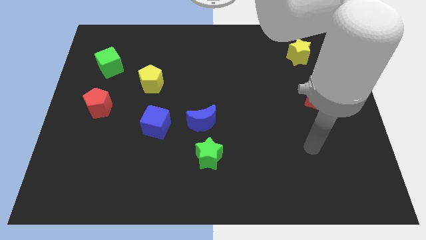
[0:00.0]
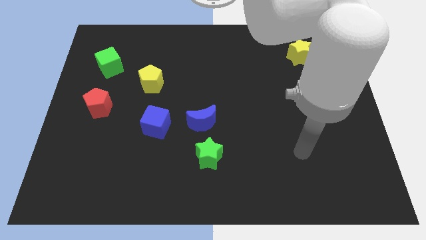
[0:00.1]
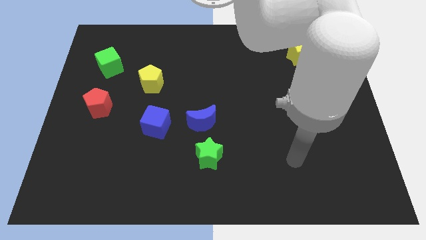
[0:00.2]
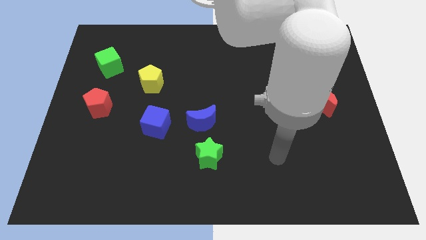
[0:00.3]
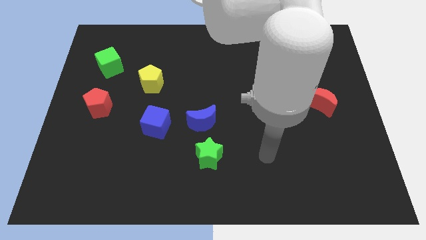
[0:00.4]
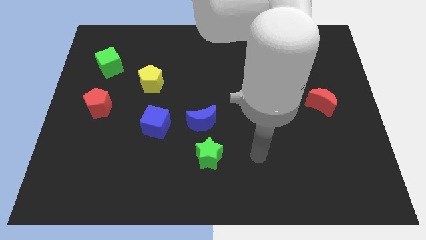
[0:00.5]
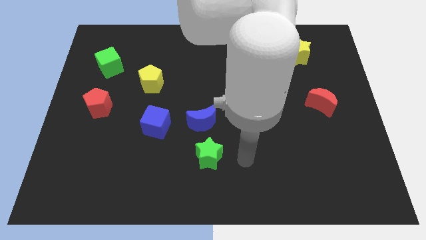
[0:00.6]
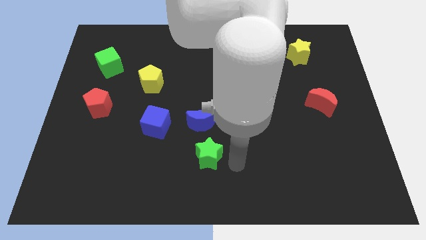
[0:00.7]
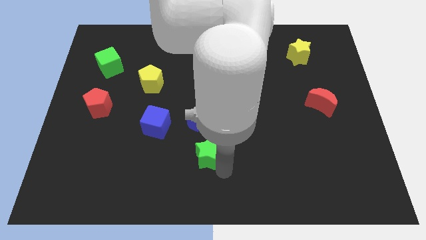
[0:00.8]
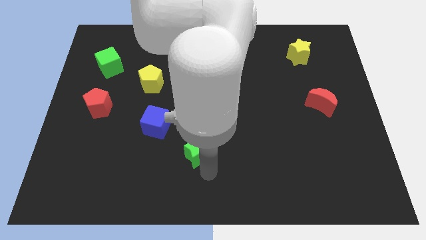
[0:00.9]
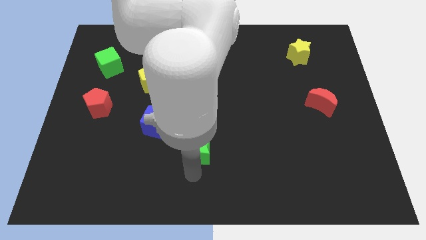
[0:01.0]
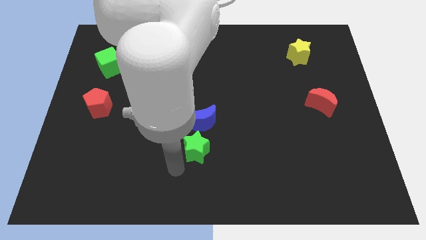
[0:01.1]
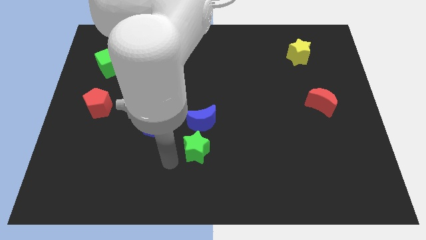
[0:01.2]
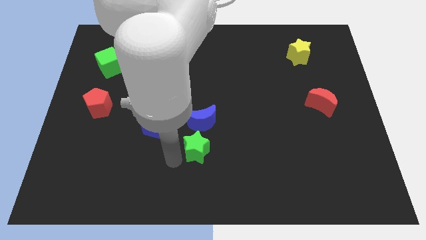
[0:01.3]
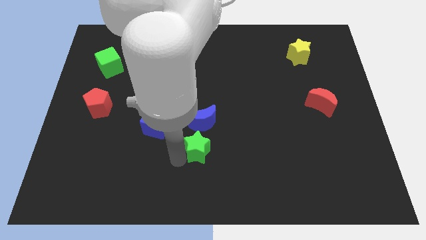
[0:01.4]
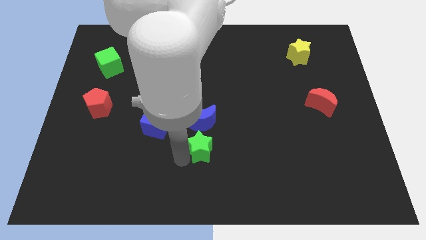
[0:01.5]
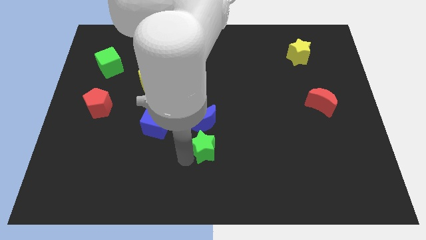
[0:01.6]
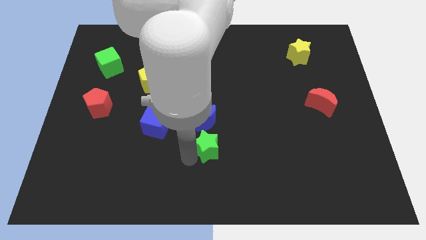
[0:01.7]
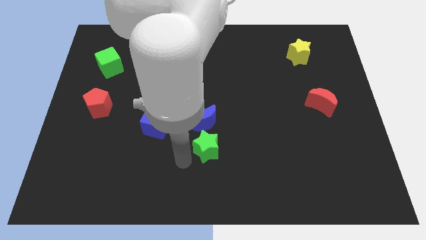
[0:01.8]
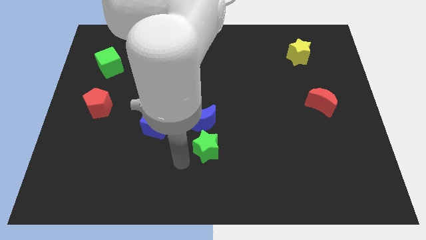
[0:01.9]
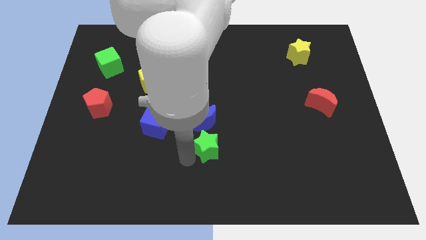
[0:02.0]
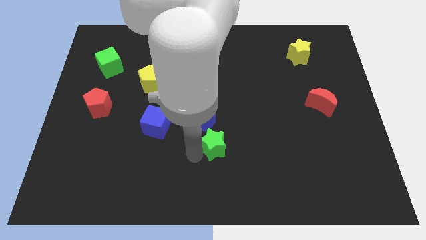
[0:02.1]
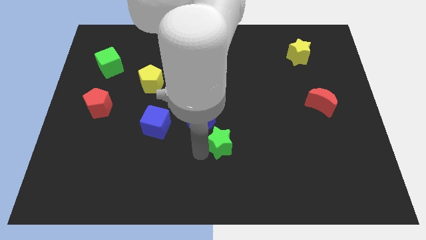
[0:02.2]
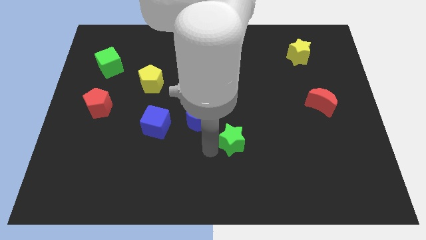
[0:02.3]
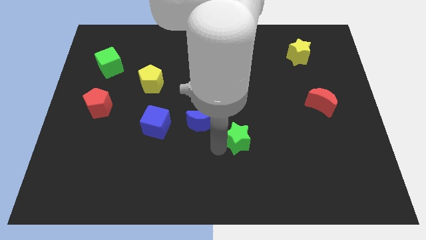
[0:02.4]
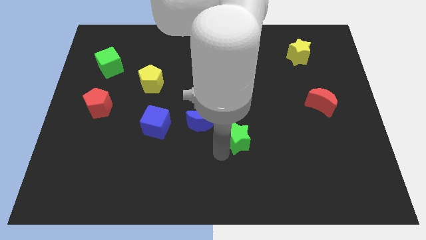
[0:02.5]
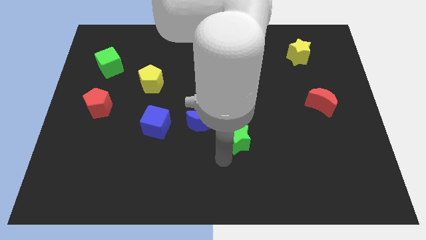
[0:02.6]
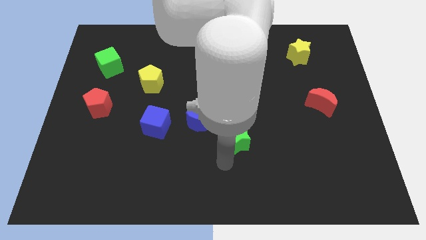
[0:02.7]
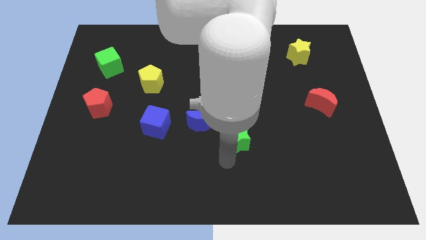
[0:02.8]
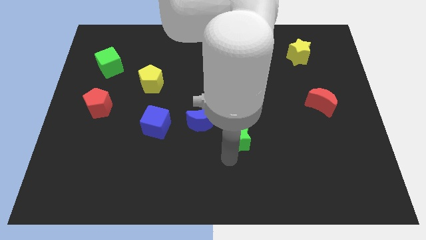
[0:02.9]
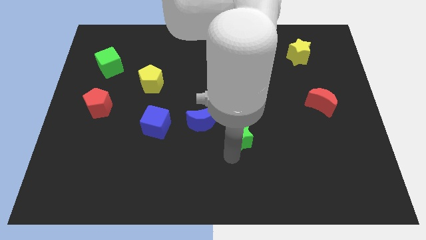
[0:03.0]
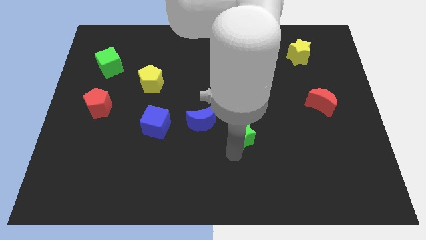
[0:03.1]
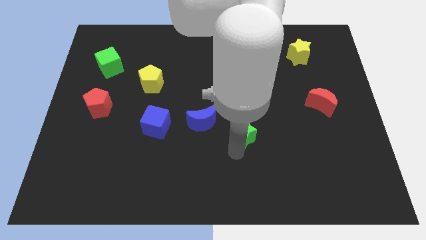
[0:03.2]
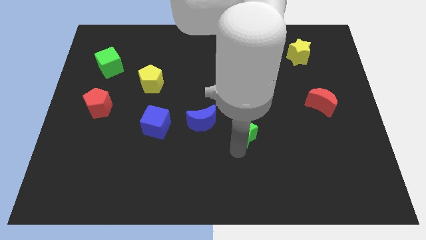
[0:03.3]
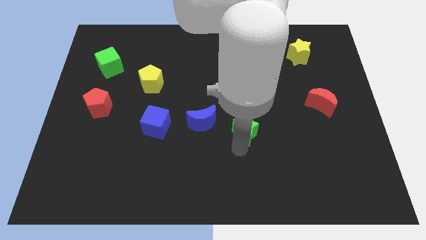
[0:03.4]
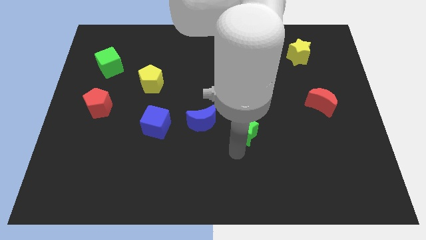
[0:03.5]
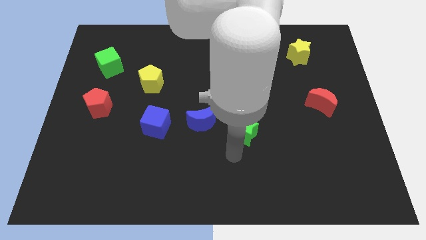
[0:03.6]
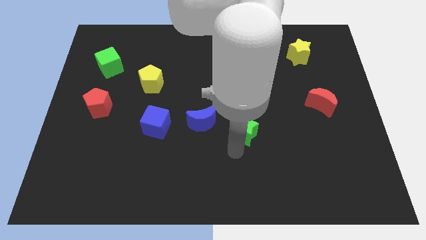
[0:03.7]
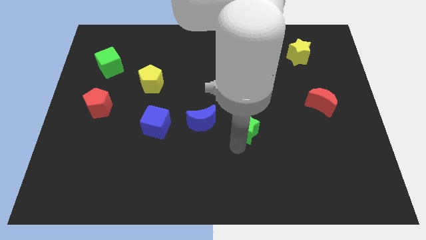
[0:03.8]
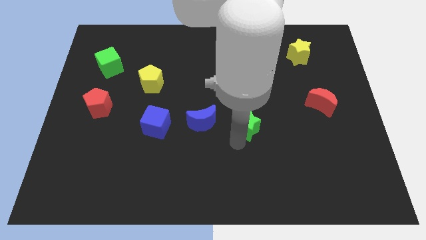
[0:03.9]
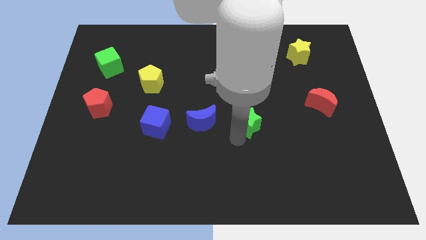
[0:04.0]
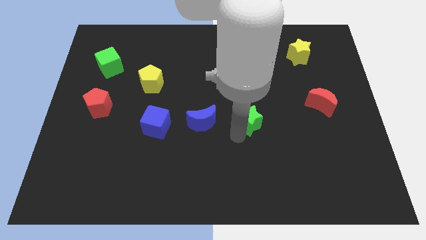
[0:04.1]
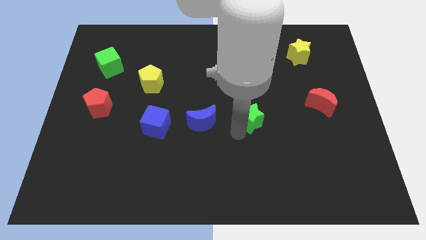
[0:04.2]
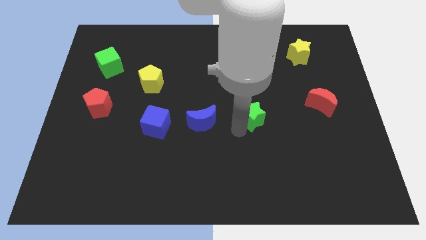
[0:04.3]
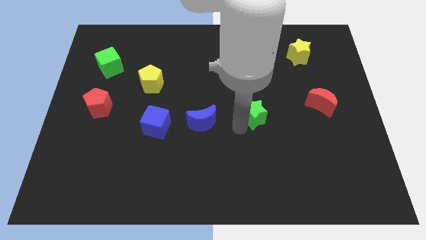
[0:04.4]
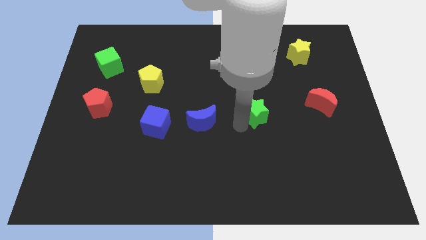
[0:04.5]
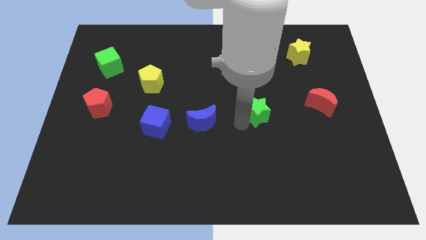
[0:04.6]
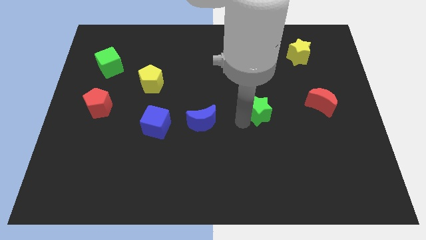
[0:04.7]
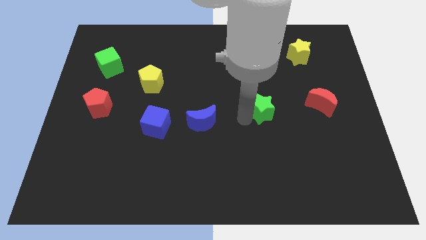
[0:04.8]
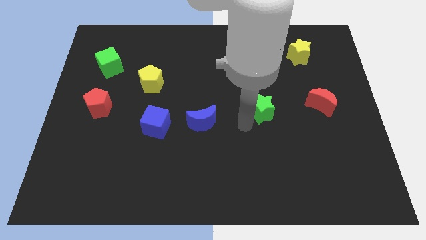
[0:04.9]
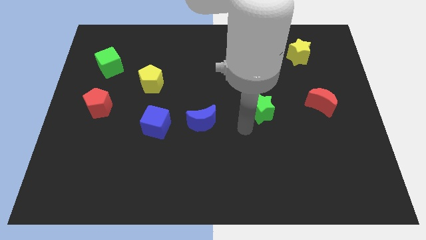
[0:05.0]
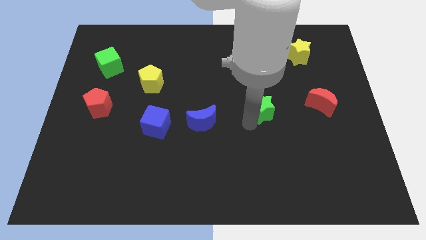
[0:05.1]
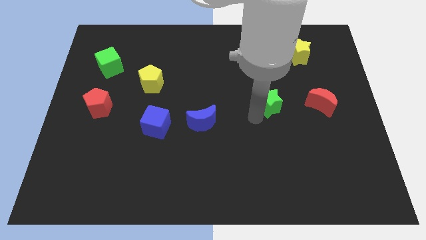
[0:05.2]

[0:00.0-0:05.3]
move the green star upwards and to the right diagonally

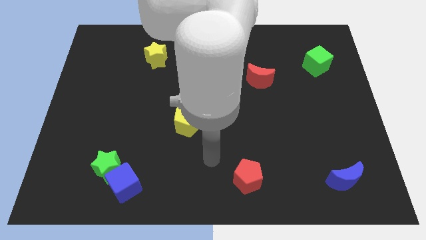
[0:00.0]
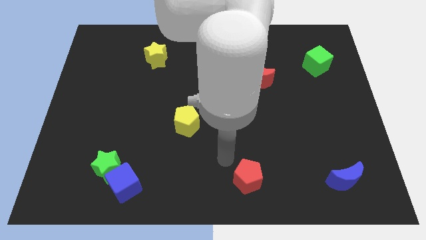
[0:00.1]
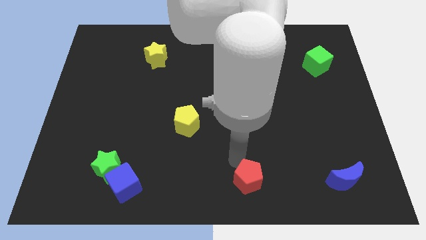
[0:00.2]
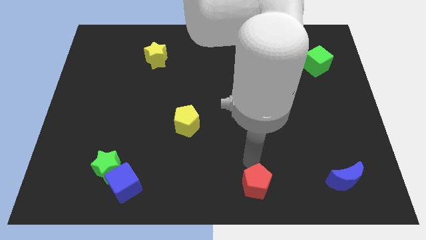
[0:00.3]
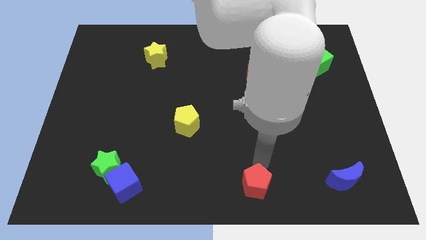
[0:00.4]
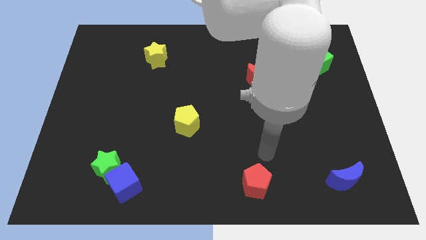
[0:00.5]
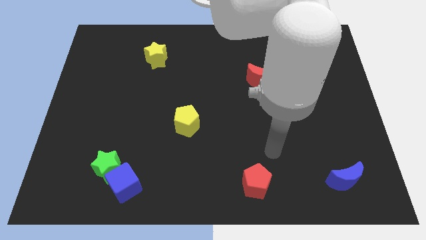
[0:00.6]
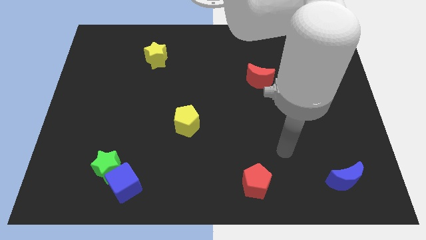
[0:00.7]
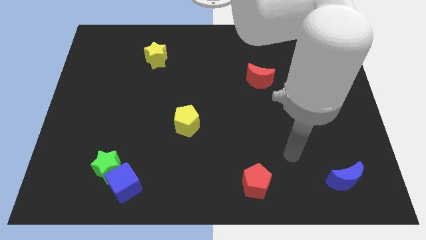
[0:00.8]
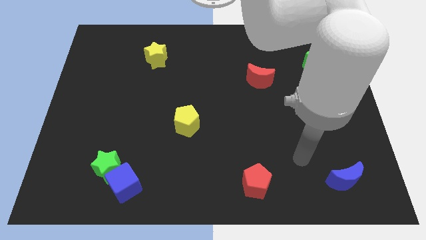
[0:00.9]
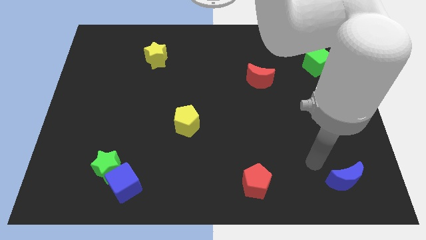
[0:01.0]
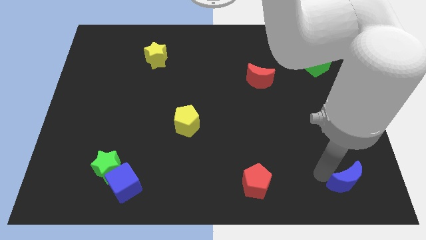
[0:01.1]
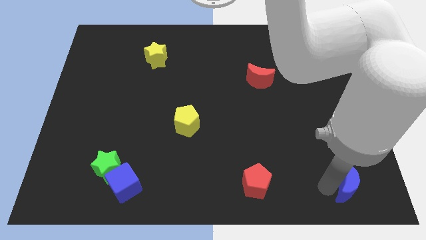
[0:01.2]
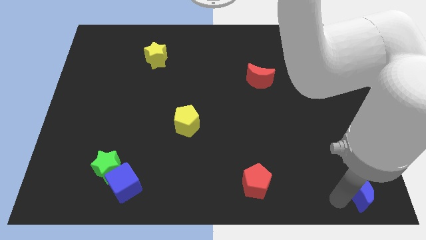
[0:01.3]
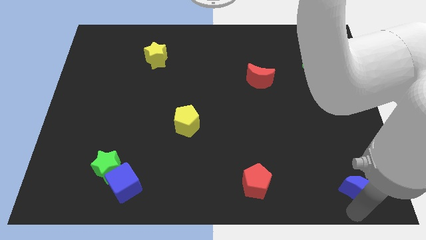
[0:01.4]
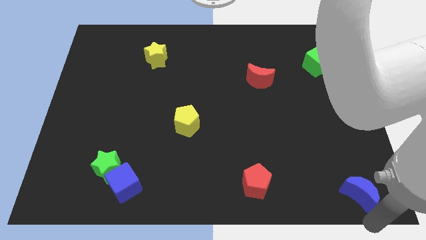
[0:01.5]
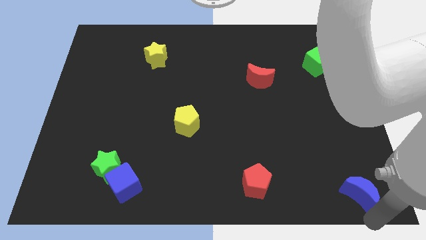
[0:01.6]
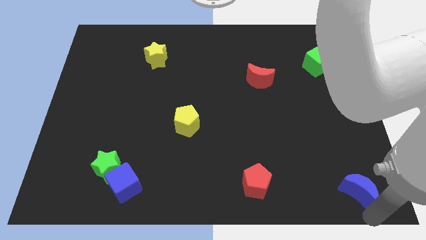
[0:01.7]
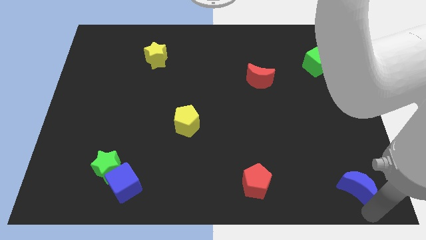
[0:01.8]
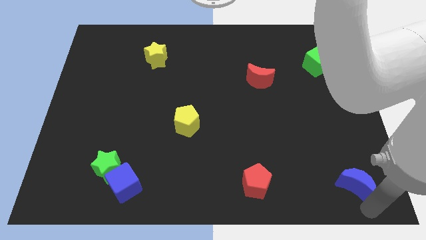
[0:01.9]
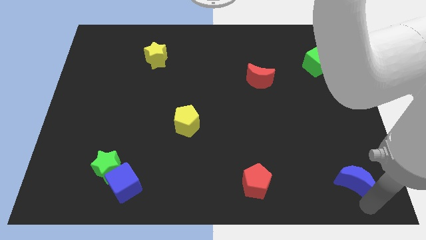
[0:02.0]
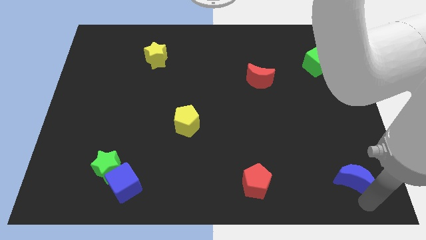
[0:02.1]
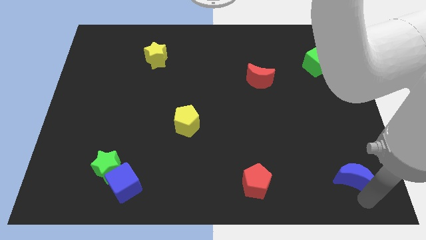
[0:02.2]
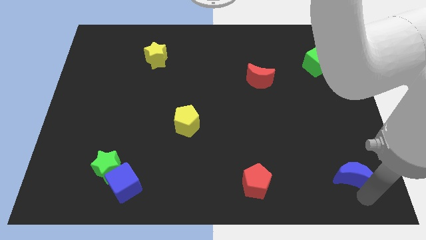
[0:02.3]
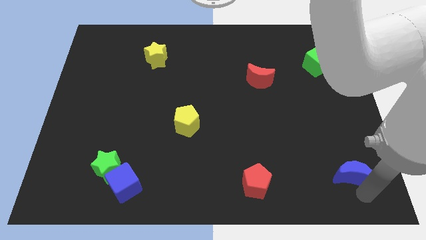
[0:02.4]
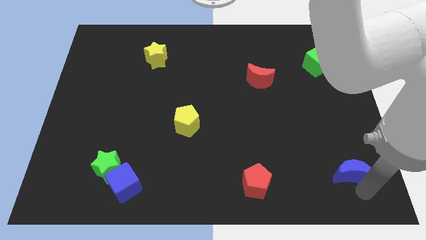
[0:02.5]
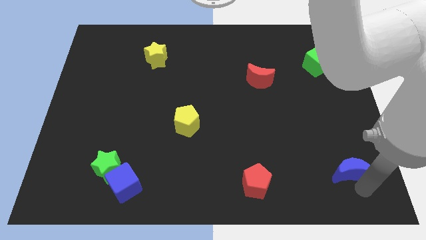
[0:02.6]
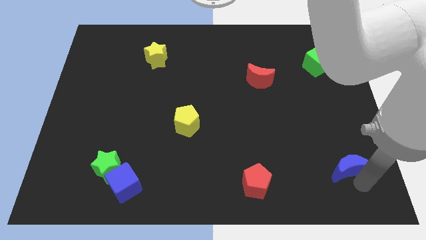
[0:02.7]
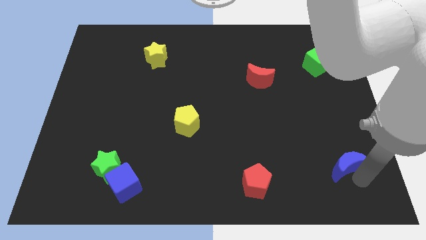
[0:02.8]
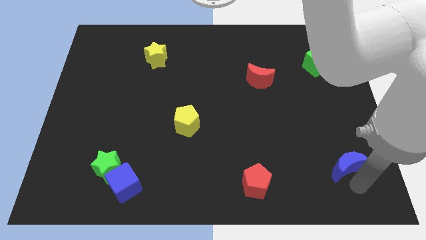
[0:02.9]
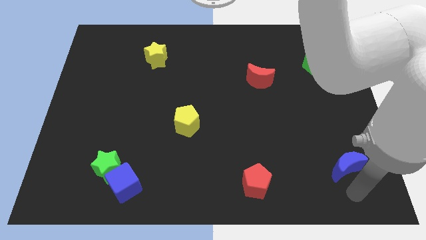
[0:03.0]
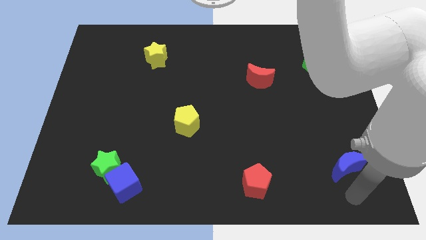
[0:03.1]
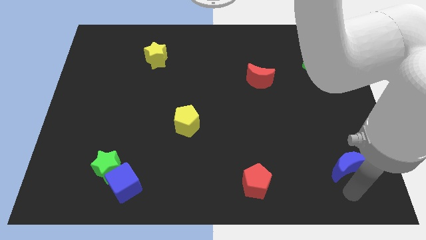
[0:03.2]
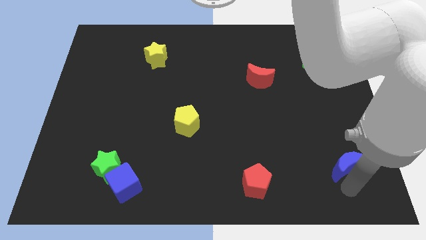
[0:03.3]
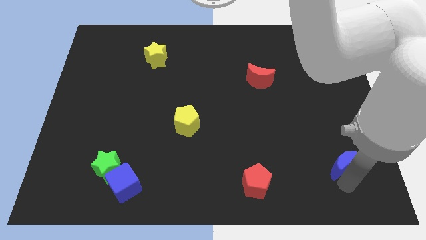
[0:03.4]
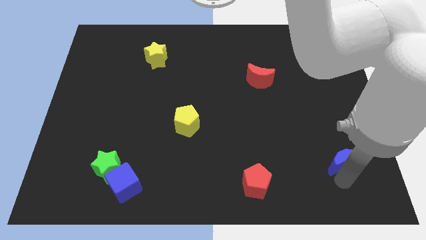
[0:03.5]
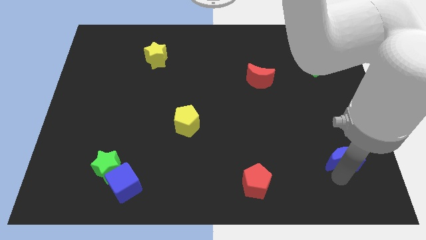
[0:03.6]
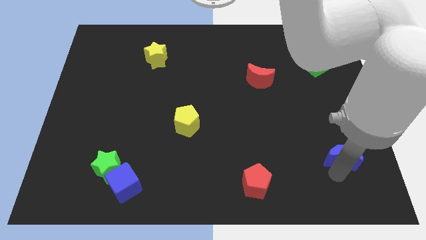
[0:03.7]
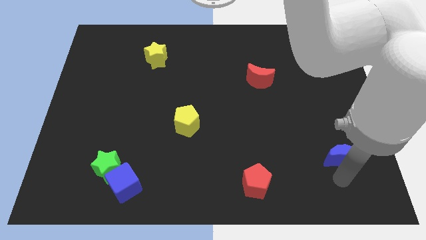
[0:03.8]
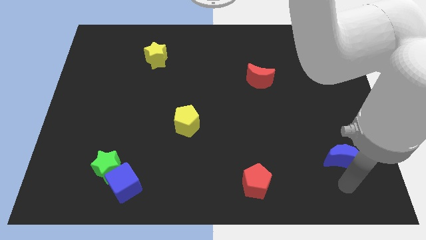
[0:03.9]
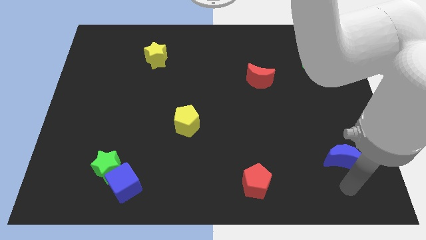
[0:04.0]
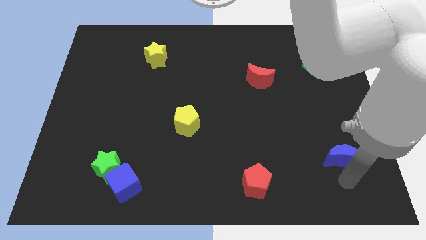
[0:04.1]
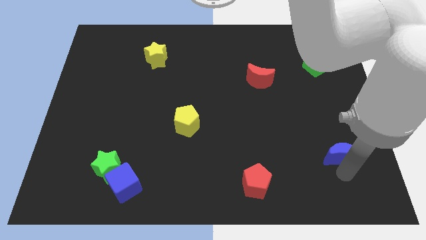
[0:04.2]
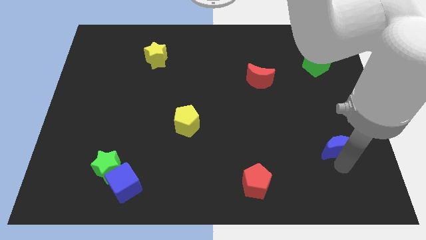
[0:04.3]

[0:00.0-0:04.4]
push the blue moon somewhat up
